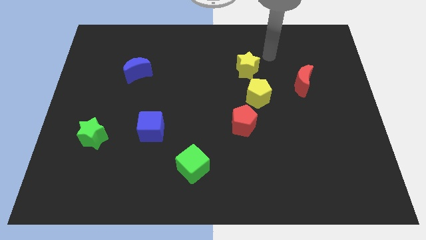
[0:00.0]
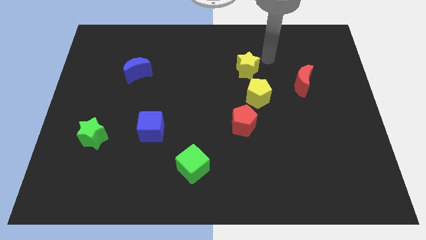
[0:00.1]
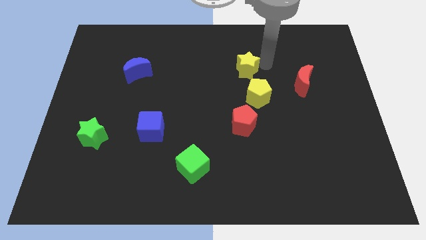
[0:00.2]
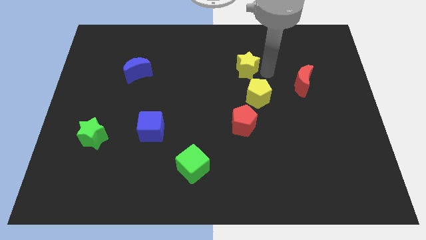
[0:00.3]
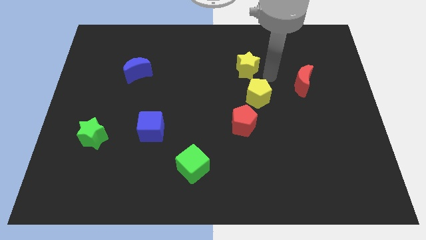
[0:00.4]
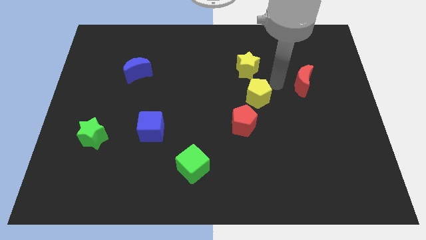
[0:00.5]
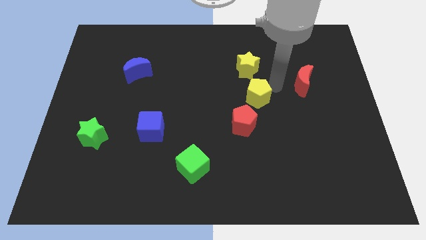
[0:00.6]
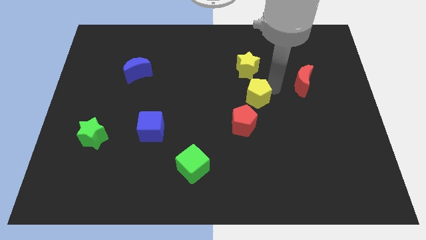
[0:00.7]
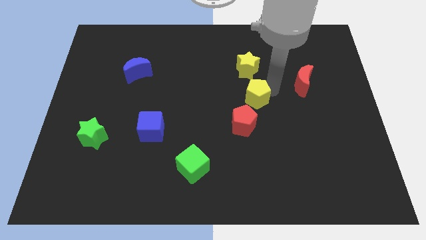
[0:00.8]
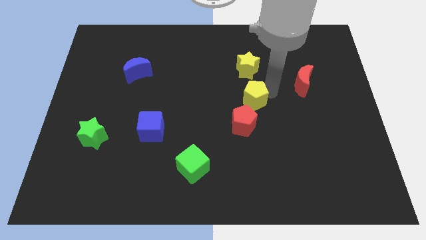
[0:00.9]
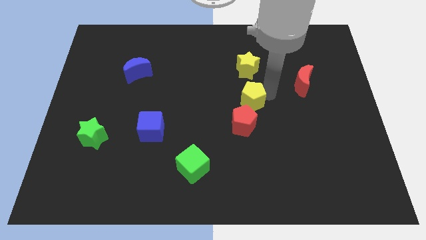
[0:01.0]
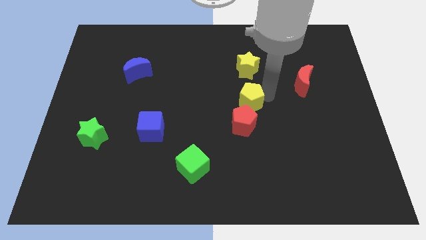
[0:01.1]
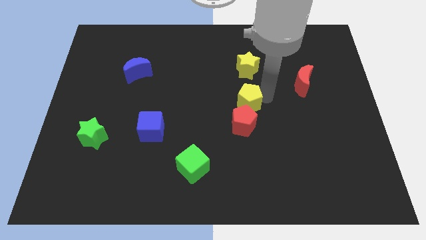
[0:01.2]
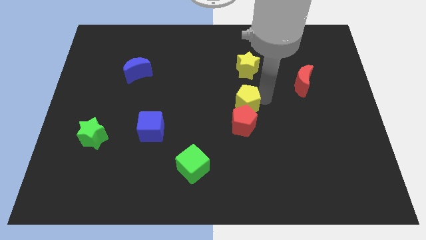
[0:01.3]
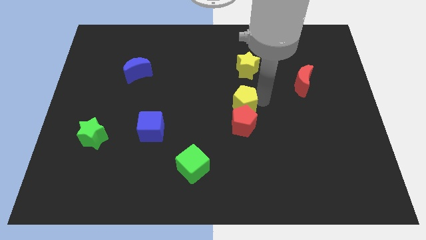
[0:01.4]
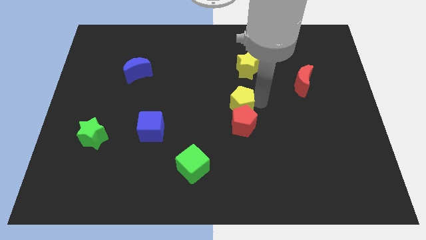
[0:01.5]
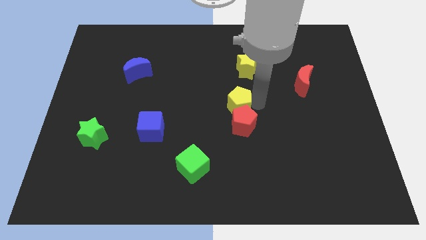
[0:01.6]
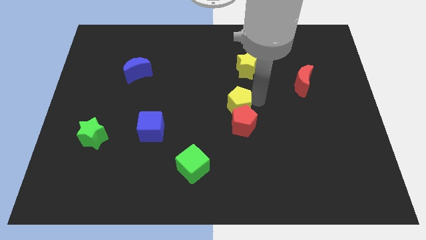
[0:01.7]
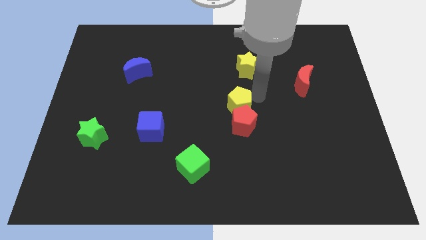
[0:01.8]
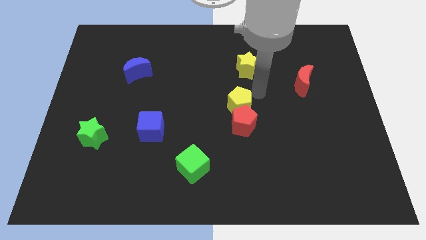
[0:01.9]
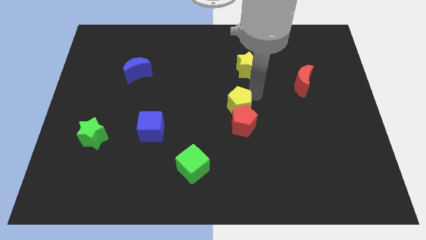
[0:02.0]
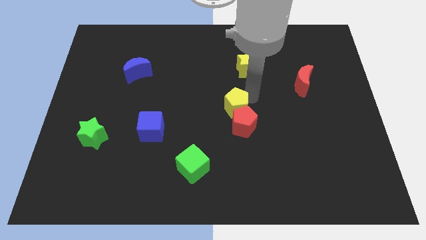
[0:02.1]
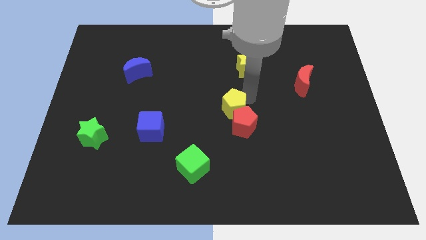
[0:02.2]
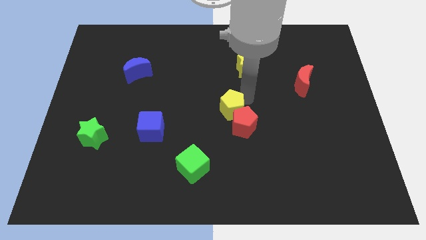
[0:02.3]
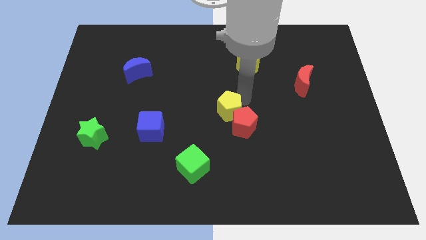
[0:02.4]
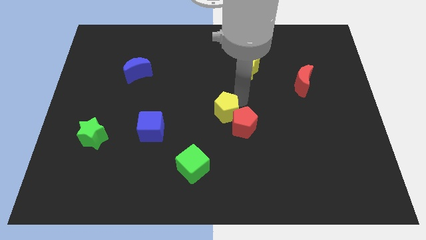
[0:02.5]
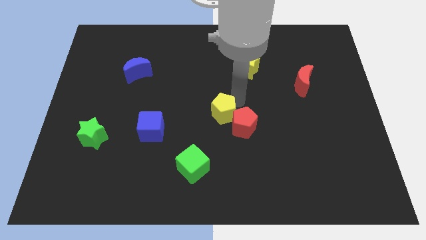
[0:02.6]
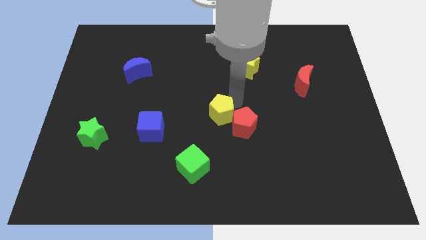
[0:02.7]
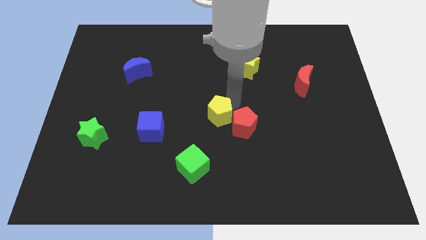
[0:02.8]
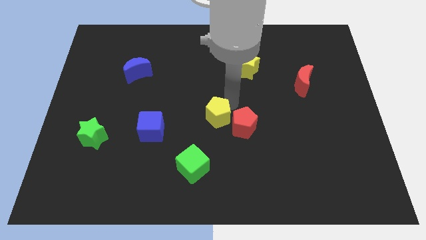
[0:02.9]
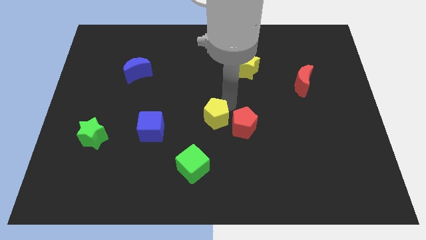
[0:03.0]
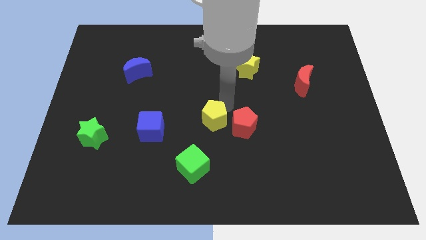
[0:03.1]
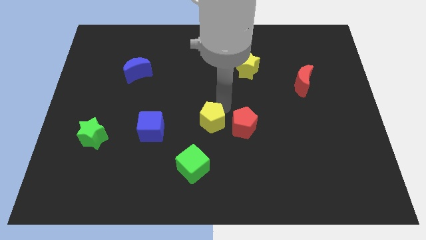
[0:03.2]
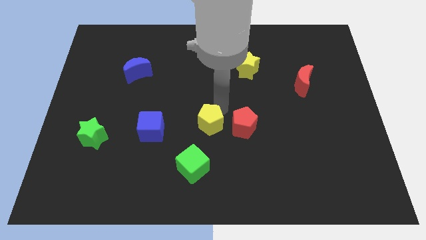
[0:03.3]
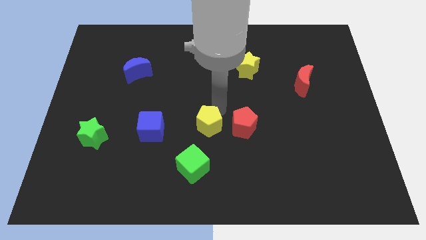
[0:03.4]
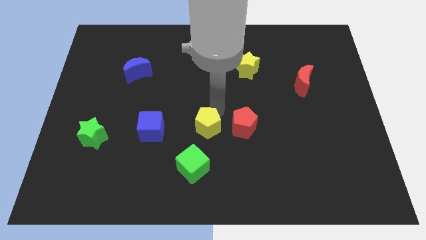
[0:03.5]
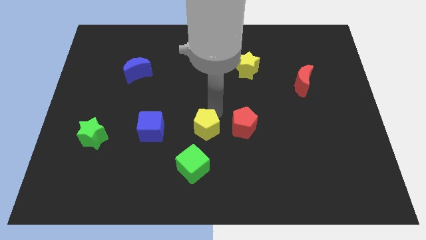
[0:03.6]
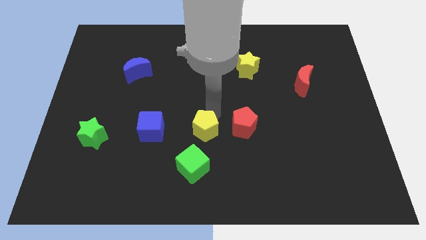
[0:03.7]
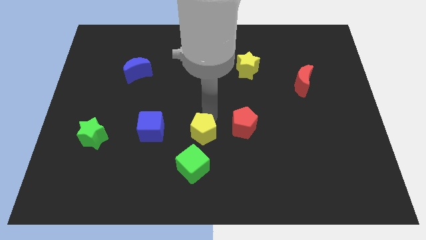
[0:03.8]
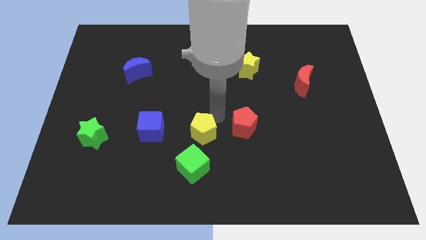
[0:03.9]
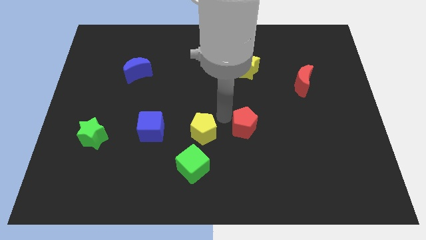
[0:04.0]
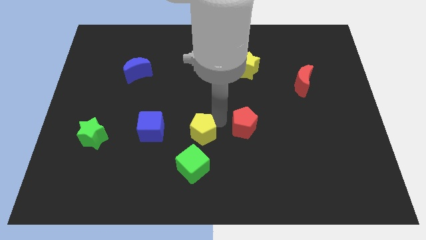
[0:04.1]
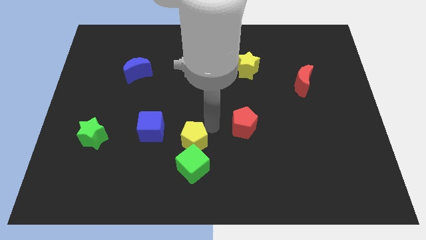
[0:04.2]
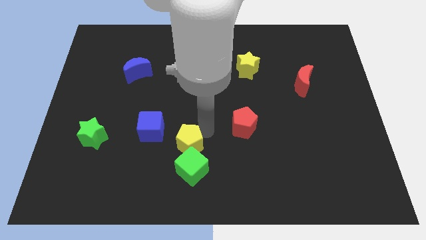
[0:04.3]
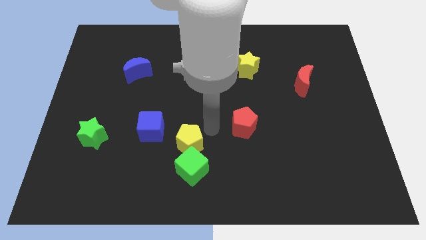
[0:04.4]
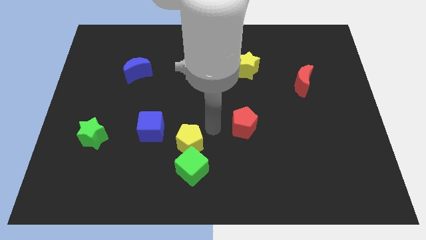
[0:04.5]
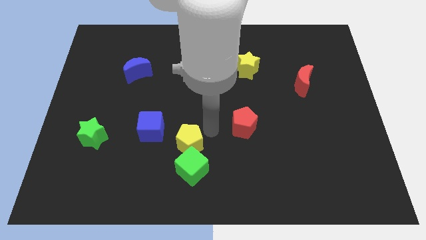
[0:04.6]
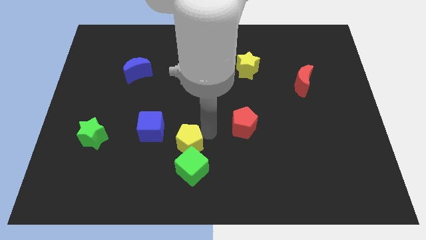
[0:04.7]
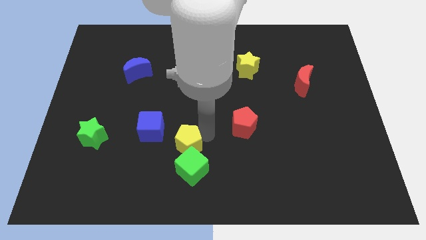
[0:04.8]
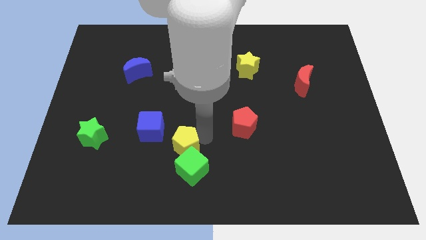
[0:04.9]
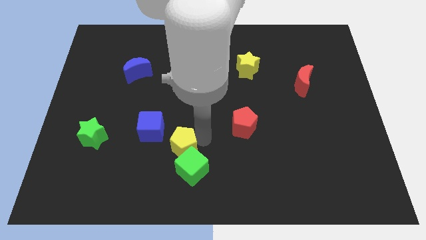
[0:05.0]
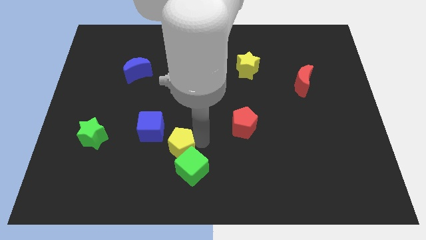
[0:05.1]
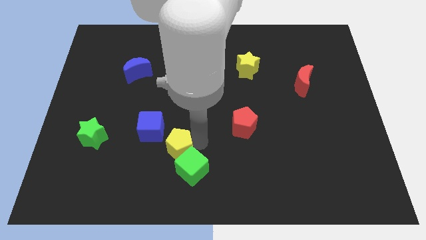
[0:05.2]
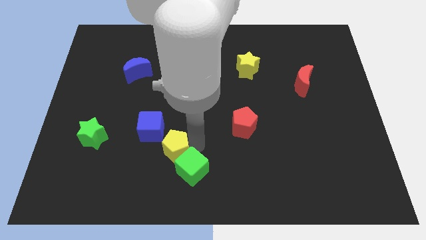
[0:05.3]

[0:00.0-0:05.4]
push the yellow pentagon left of the green cube

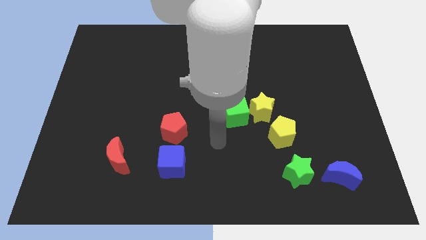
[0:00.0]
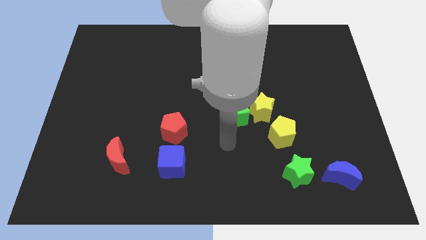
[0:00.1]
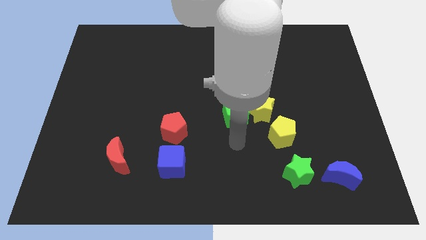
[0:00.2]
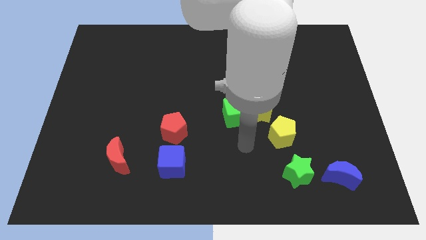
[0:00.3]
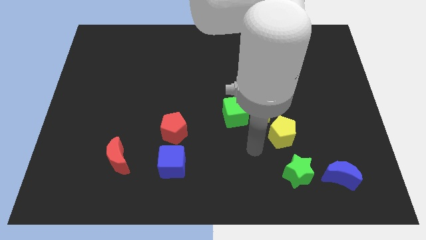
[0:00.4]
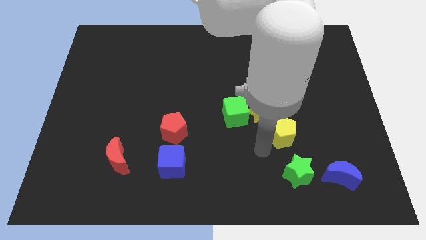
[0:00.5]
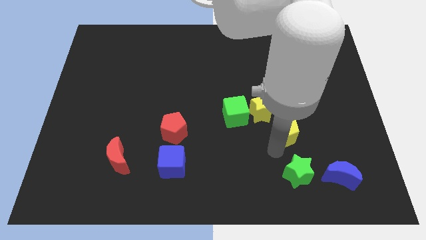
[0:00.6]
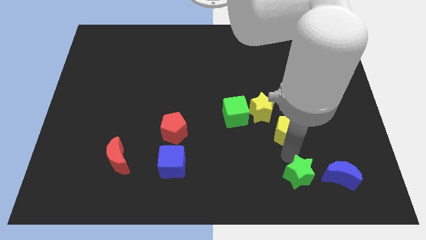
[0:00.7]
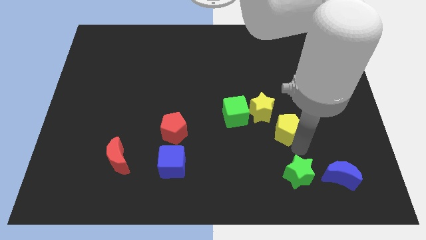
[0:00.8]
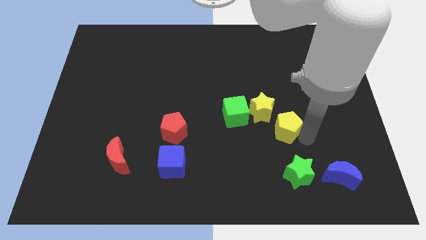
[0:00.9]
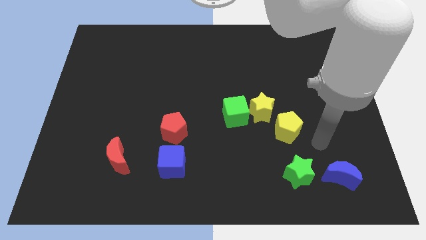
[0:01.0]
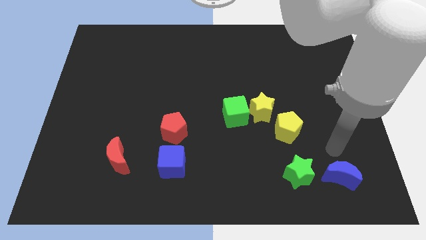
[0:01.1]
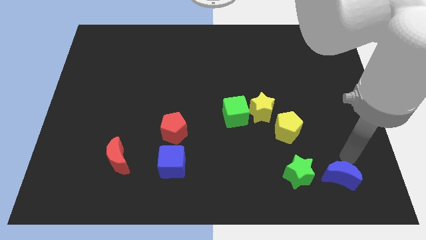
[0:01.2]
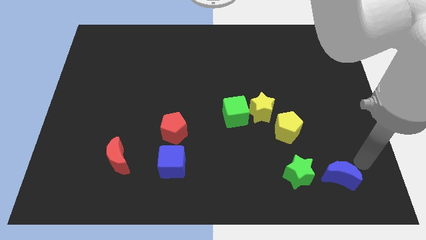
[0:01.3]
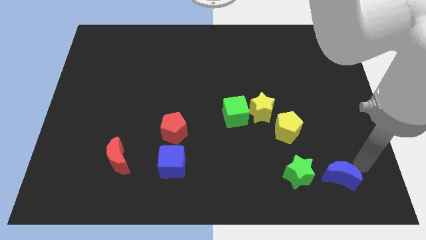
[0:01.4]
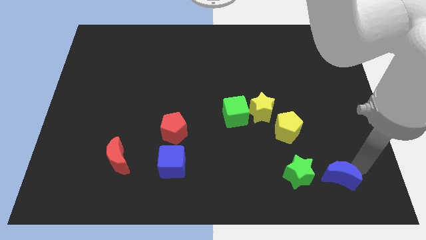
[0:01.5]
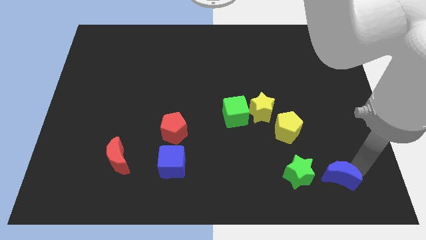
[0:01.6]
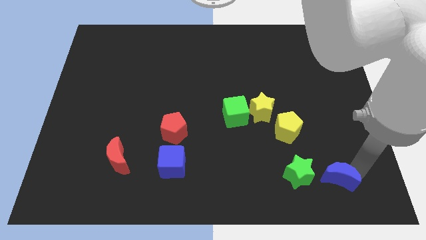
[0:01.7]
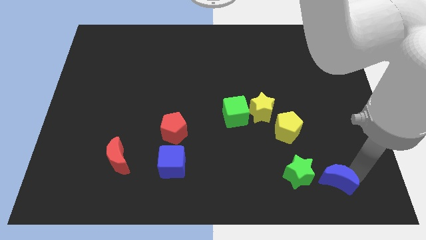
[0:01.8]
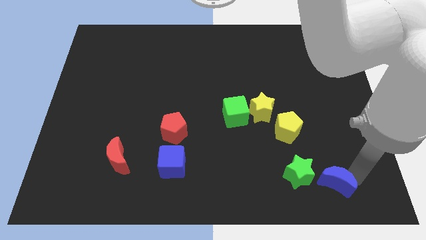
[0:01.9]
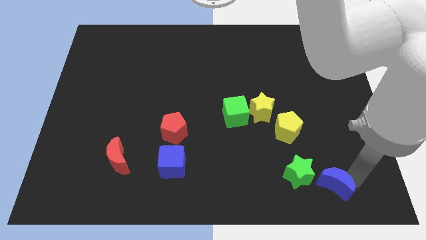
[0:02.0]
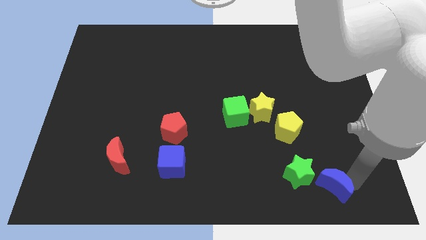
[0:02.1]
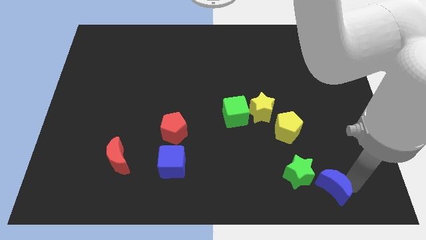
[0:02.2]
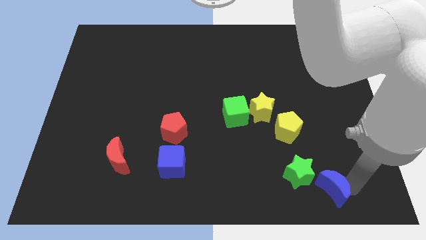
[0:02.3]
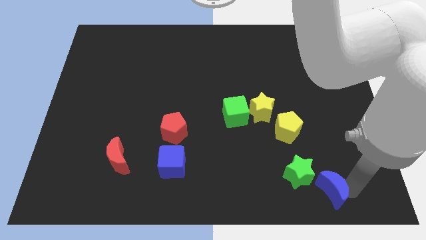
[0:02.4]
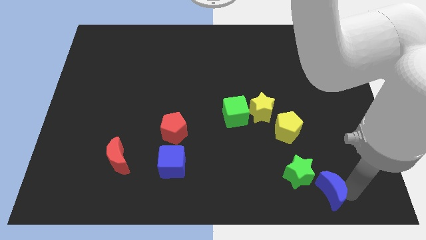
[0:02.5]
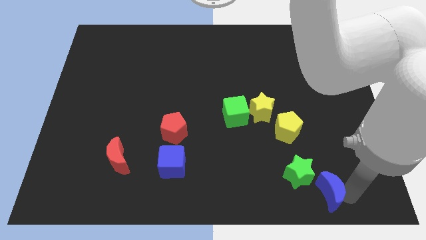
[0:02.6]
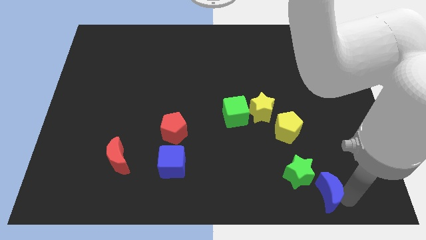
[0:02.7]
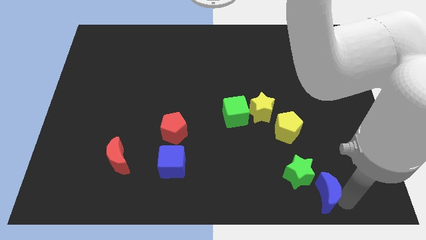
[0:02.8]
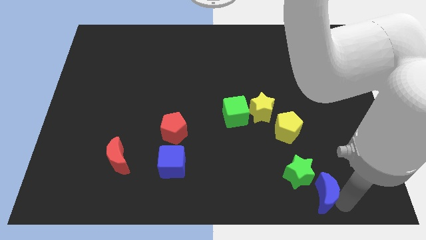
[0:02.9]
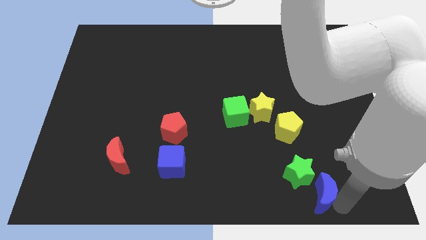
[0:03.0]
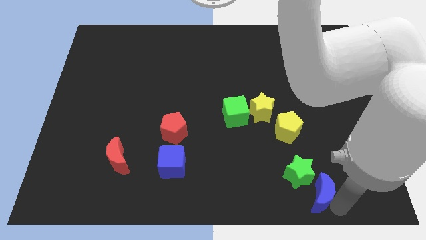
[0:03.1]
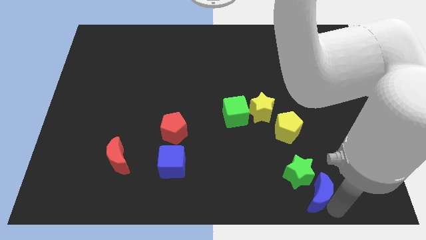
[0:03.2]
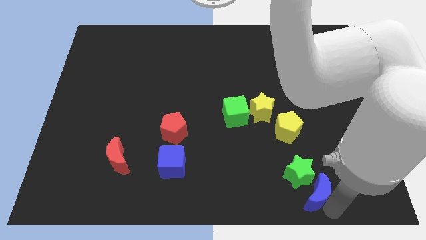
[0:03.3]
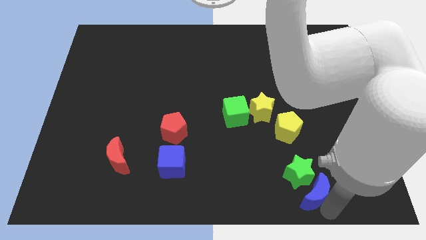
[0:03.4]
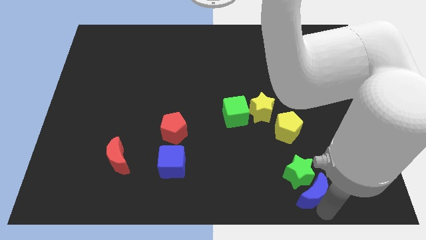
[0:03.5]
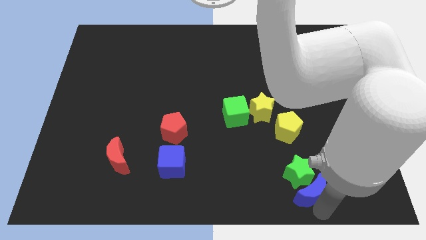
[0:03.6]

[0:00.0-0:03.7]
put the blue moon to the bottom of the yellow pentagon
